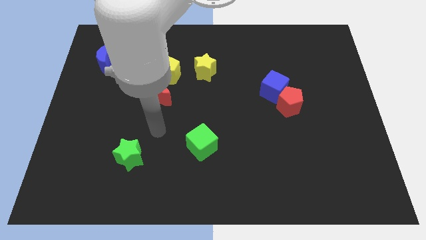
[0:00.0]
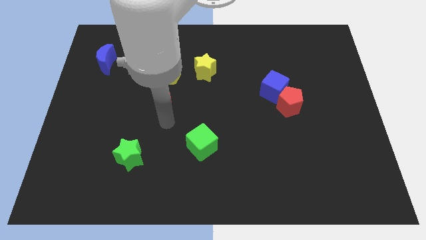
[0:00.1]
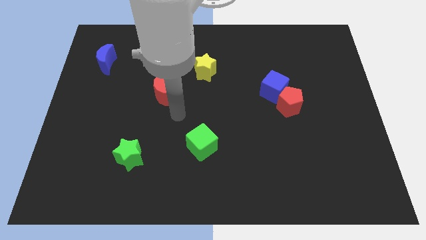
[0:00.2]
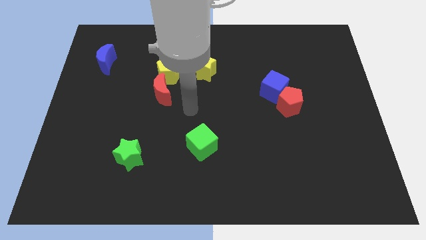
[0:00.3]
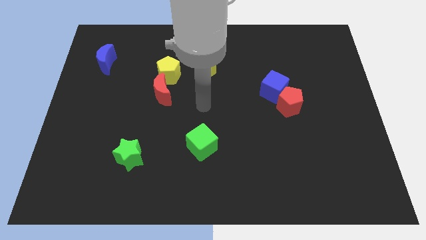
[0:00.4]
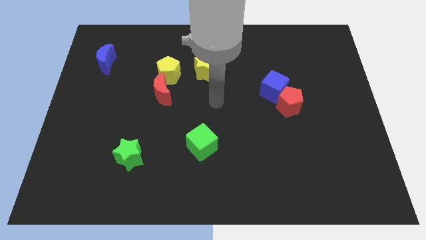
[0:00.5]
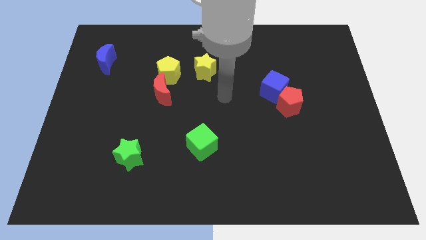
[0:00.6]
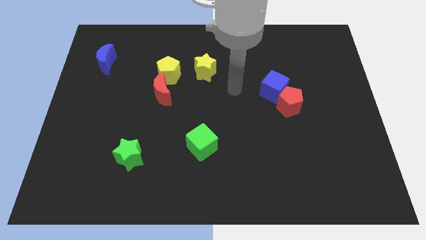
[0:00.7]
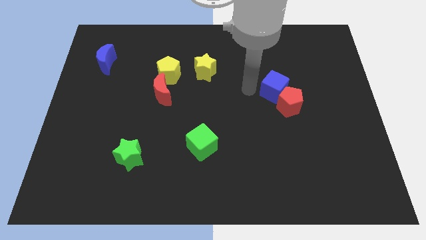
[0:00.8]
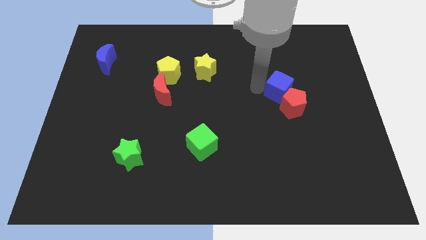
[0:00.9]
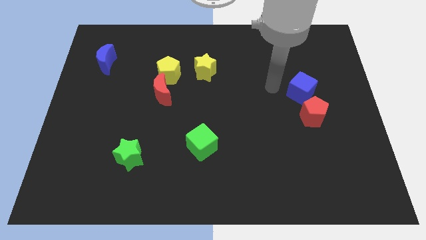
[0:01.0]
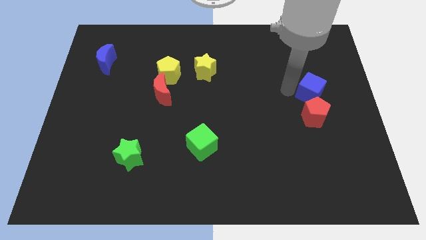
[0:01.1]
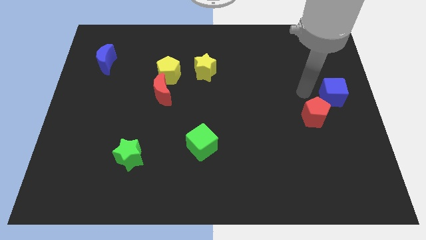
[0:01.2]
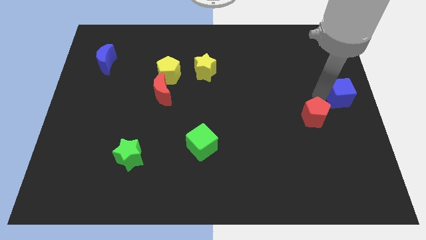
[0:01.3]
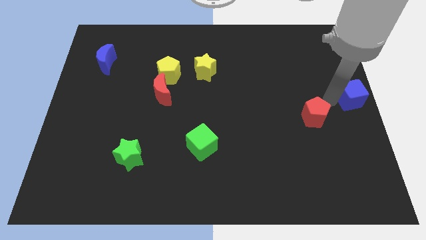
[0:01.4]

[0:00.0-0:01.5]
move the red pentagon away from the blue cube

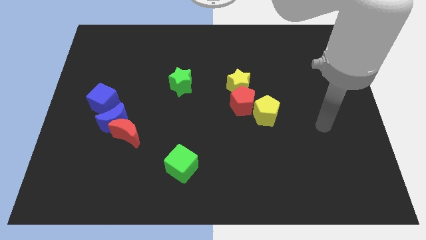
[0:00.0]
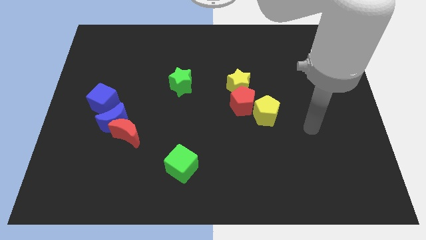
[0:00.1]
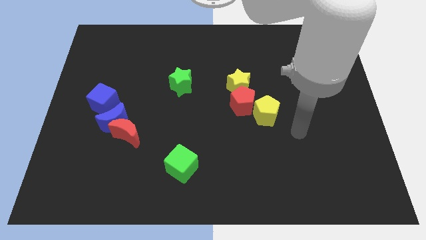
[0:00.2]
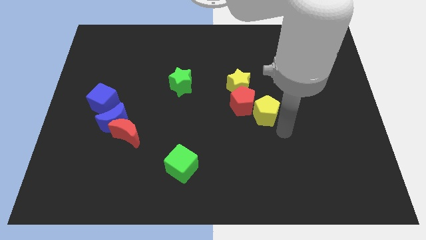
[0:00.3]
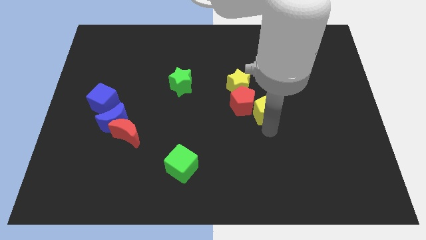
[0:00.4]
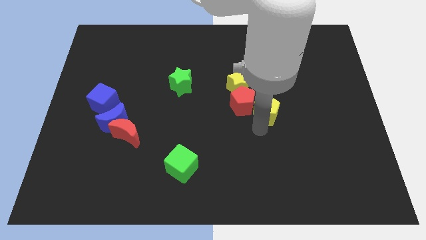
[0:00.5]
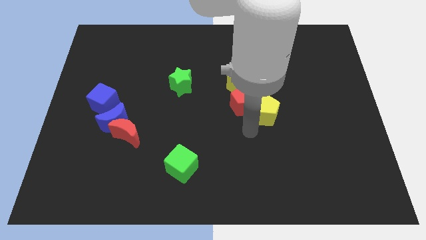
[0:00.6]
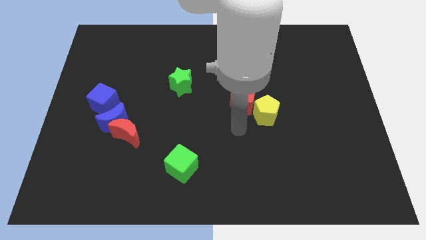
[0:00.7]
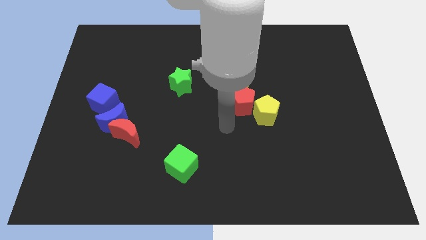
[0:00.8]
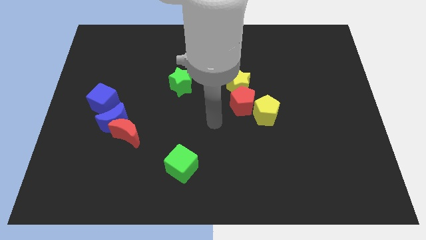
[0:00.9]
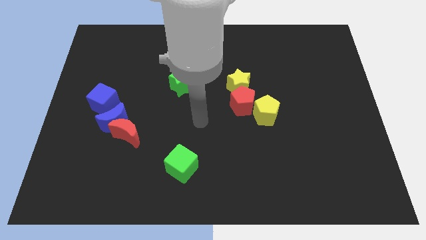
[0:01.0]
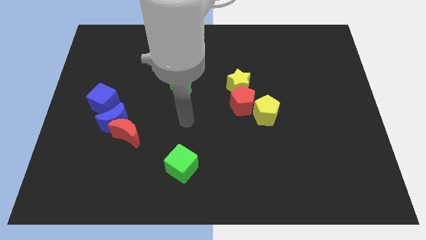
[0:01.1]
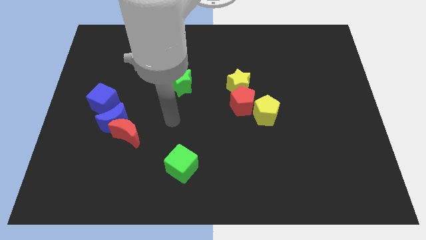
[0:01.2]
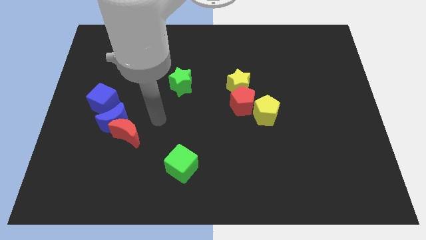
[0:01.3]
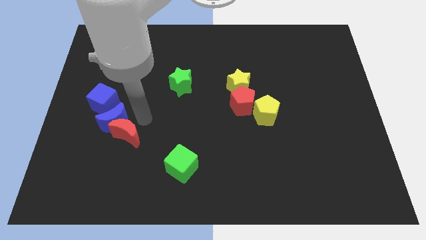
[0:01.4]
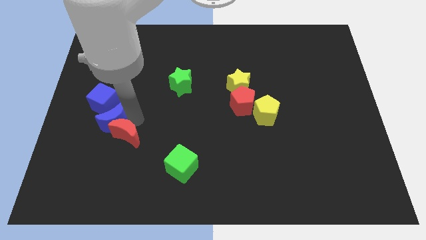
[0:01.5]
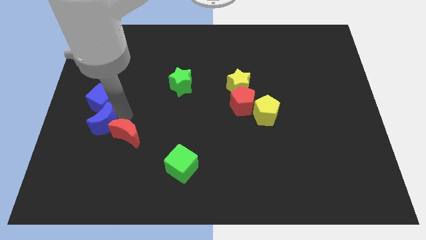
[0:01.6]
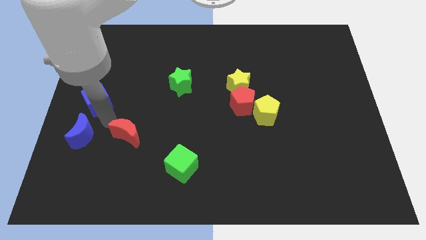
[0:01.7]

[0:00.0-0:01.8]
move the red moon away from the blue moon

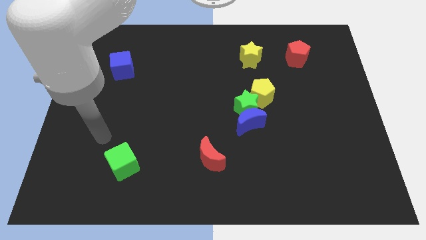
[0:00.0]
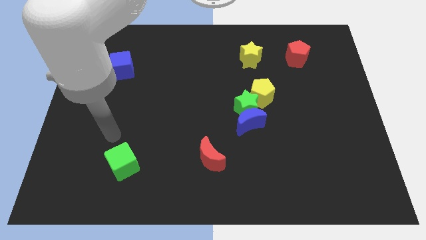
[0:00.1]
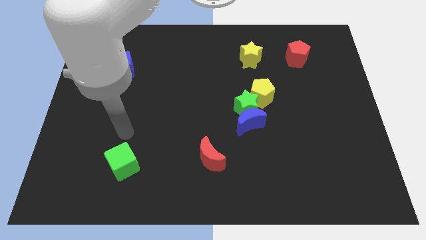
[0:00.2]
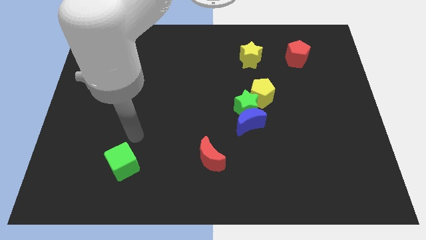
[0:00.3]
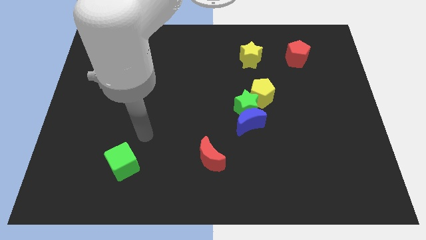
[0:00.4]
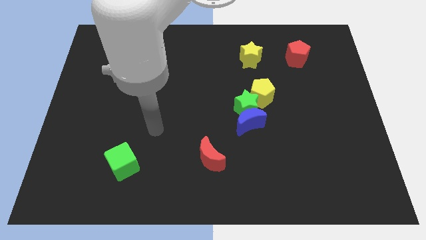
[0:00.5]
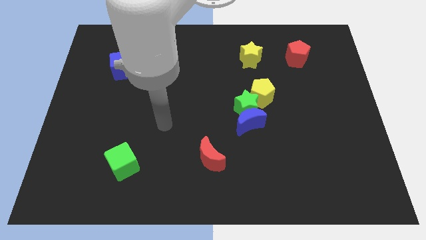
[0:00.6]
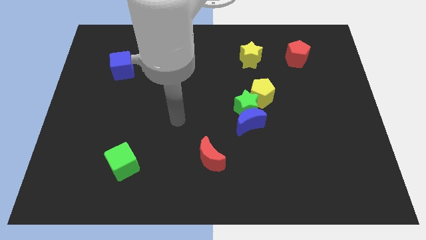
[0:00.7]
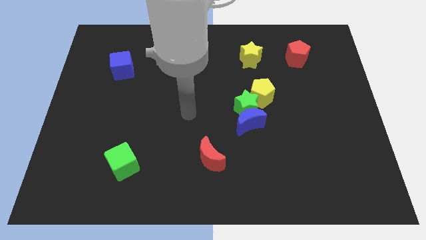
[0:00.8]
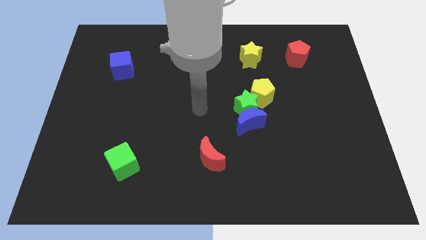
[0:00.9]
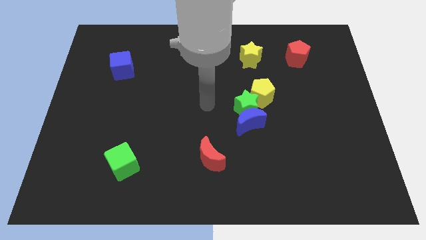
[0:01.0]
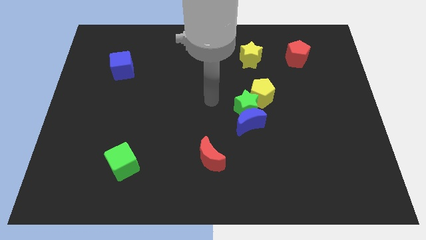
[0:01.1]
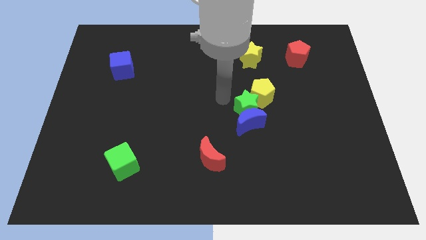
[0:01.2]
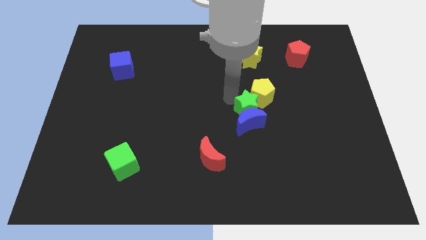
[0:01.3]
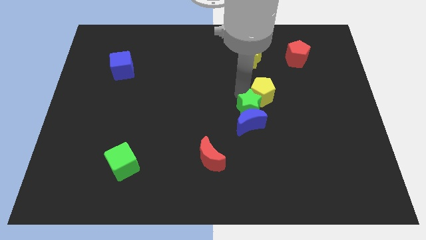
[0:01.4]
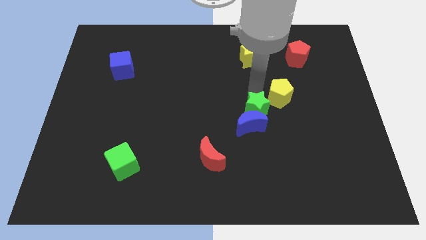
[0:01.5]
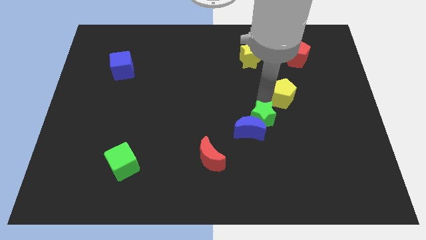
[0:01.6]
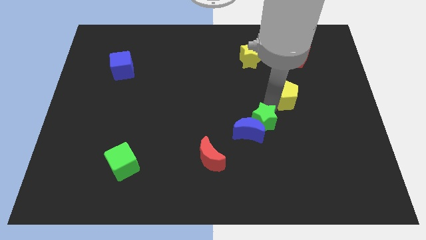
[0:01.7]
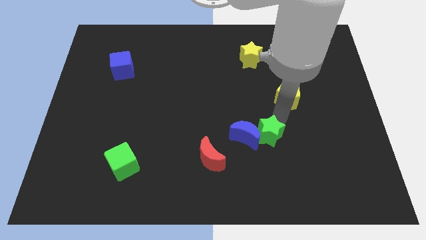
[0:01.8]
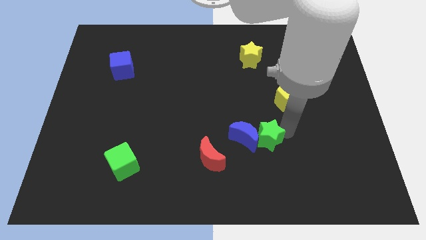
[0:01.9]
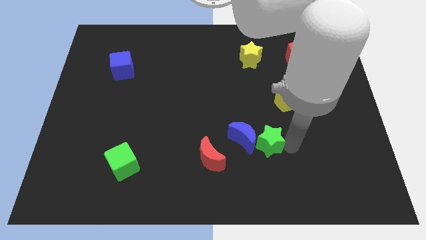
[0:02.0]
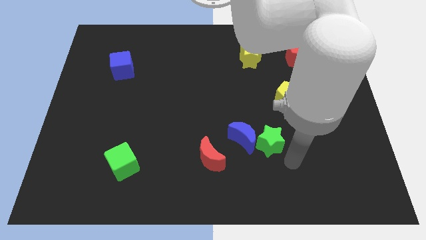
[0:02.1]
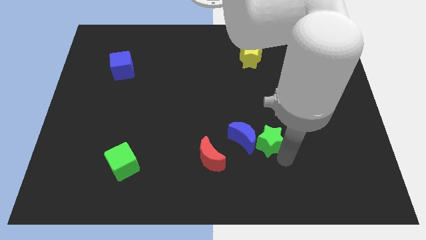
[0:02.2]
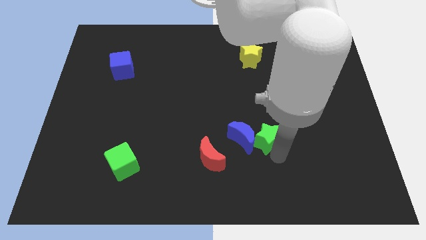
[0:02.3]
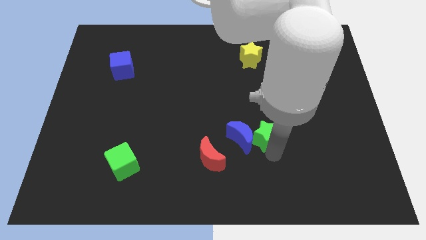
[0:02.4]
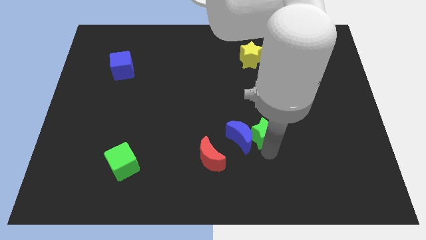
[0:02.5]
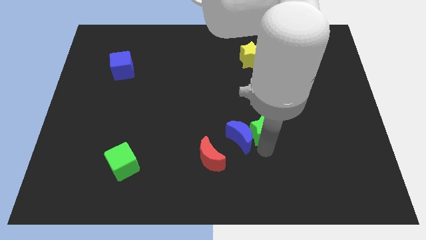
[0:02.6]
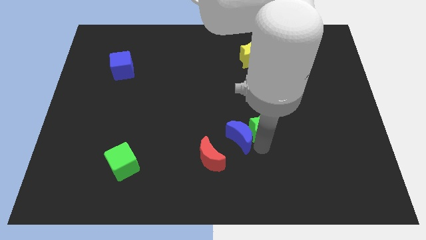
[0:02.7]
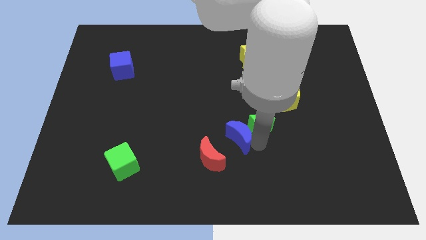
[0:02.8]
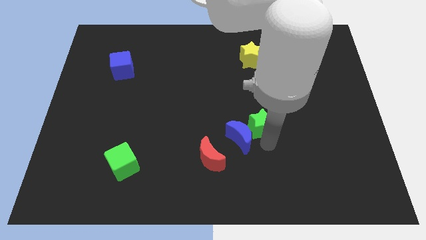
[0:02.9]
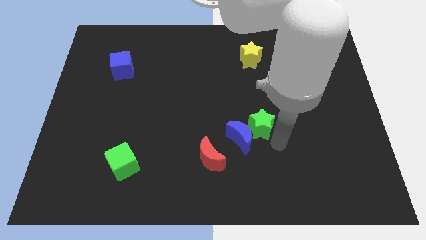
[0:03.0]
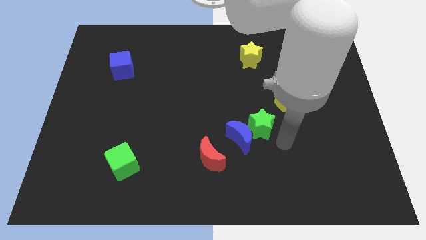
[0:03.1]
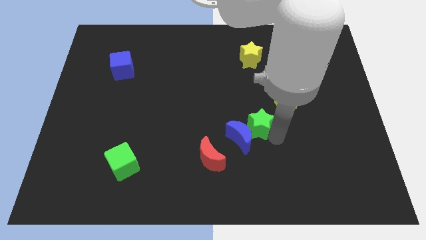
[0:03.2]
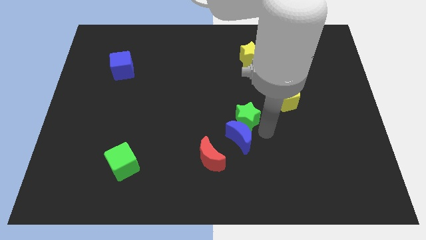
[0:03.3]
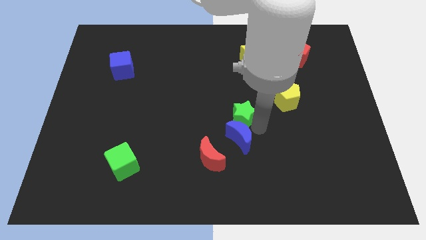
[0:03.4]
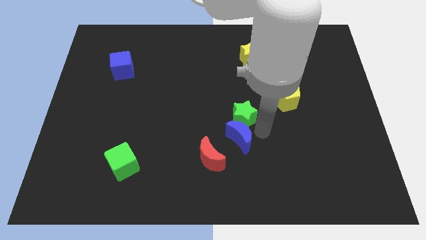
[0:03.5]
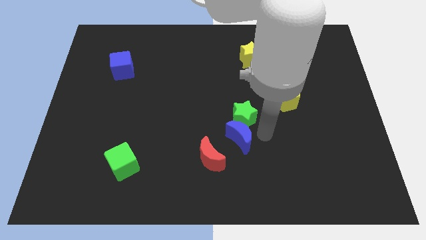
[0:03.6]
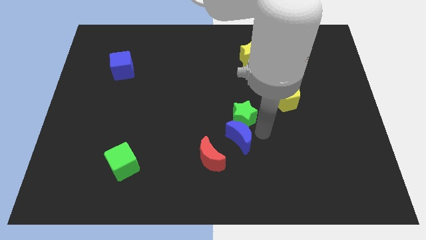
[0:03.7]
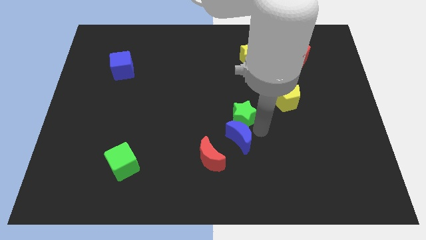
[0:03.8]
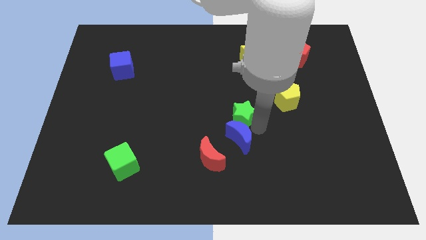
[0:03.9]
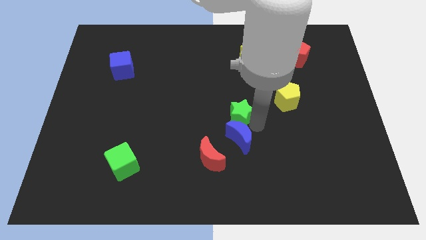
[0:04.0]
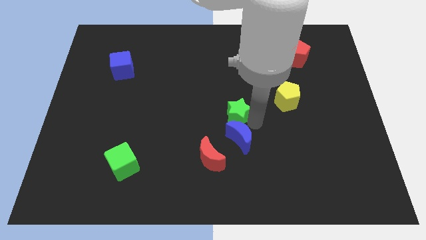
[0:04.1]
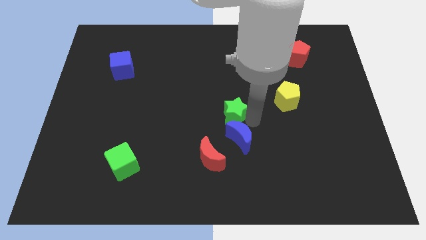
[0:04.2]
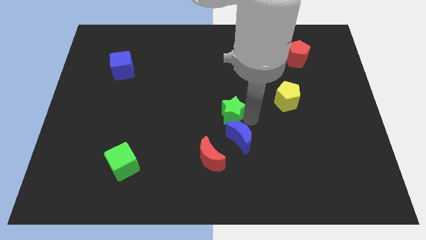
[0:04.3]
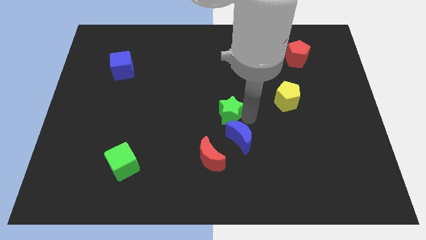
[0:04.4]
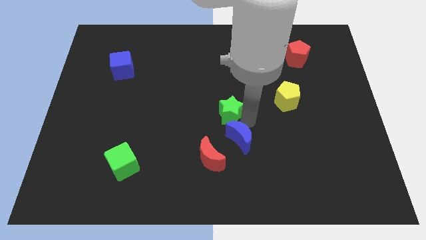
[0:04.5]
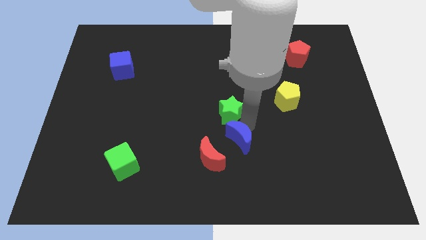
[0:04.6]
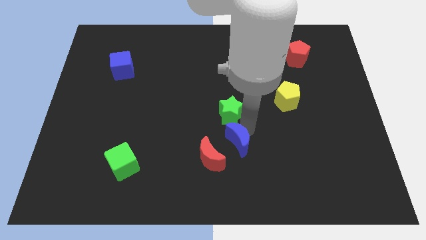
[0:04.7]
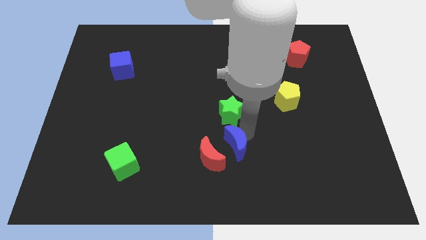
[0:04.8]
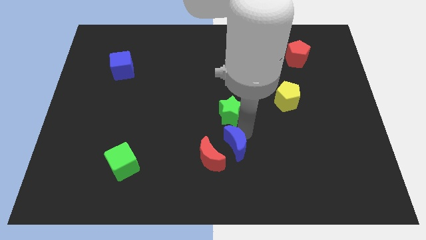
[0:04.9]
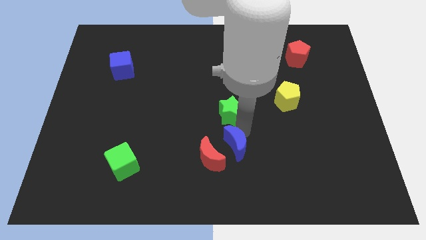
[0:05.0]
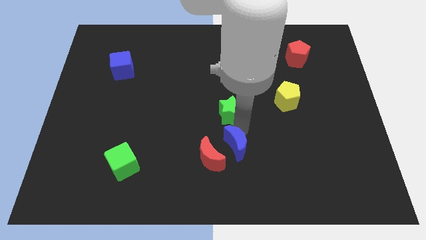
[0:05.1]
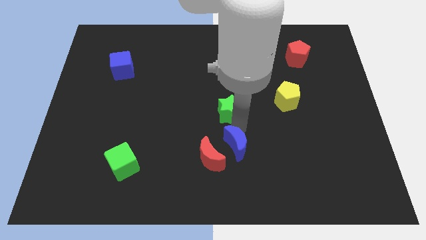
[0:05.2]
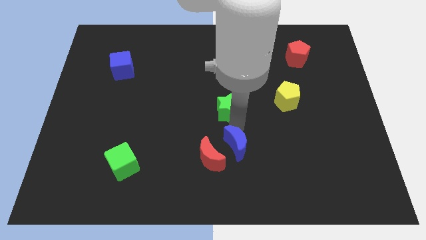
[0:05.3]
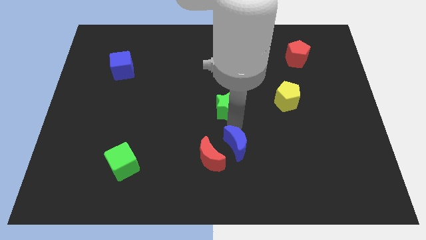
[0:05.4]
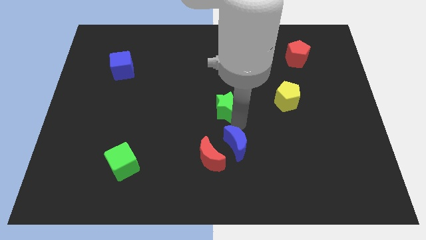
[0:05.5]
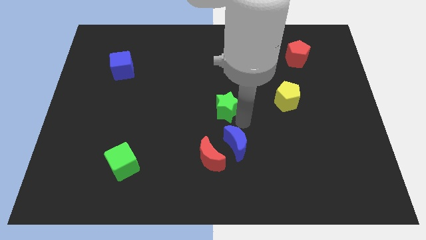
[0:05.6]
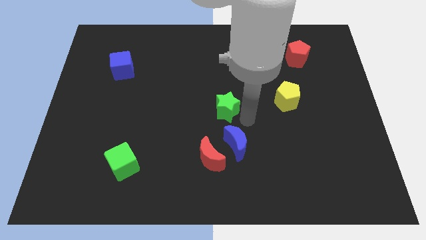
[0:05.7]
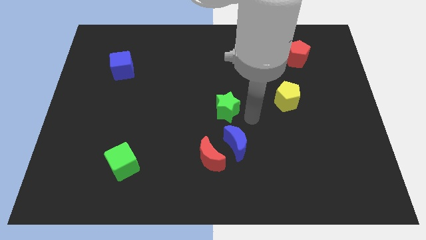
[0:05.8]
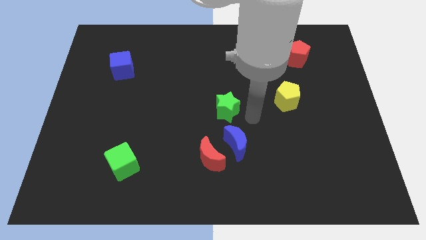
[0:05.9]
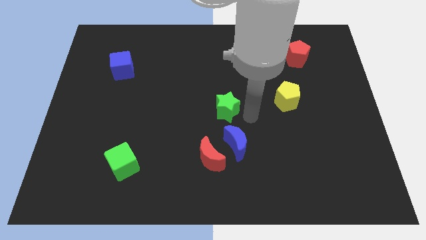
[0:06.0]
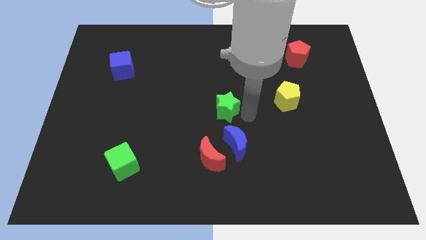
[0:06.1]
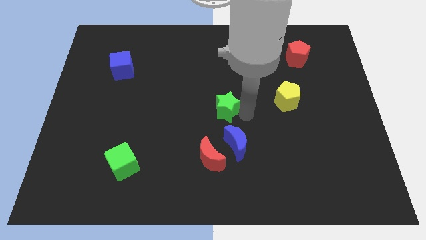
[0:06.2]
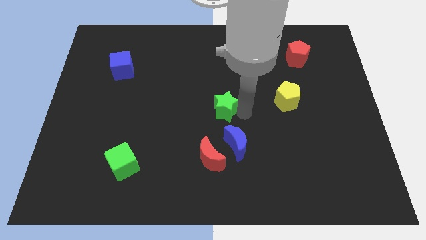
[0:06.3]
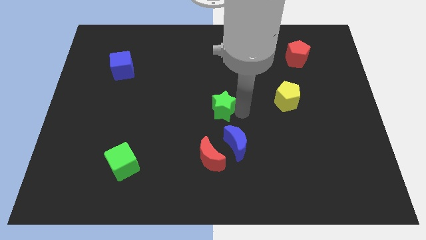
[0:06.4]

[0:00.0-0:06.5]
pull the green star apart from the blue moon and yellow pentagon
